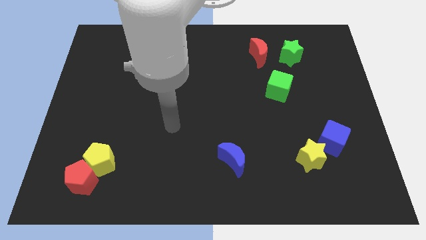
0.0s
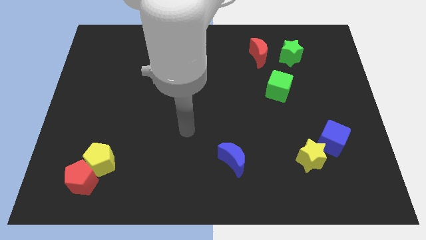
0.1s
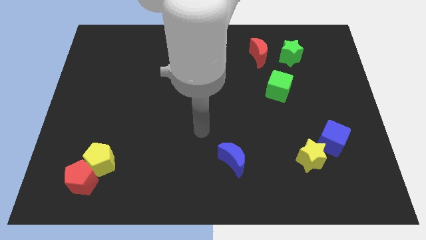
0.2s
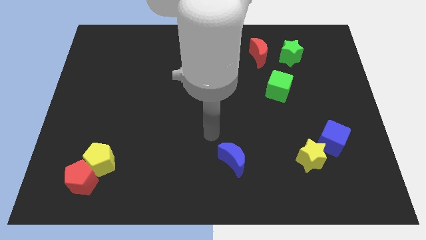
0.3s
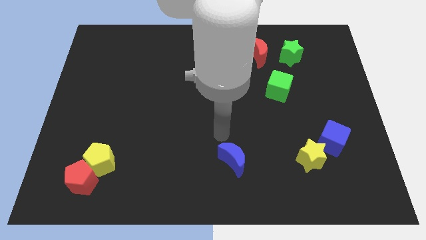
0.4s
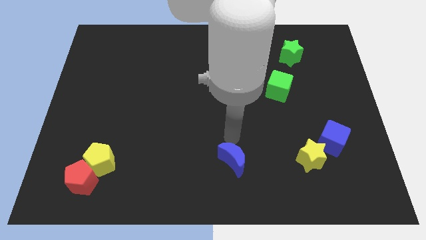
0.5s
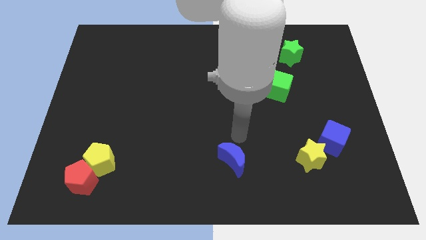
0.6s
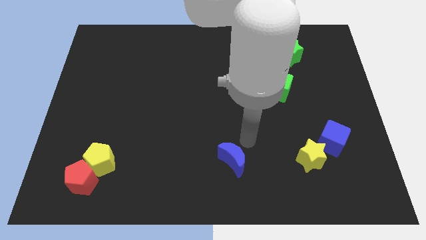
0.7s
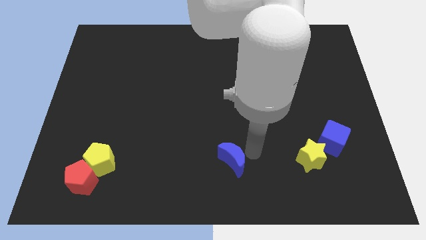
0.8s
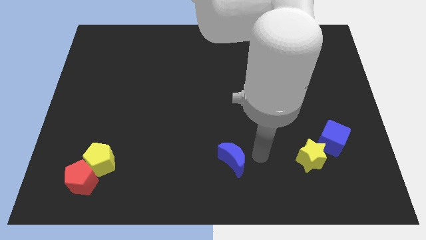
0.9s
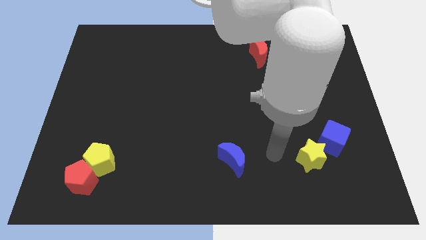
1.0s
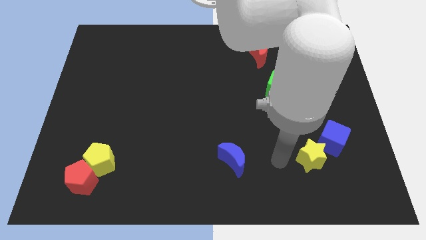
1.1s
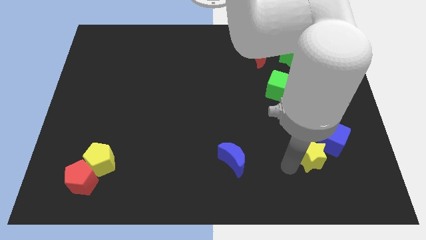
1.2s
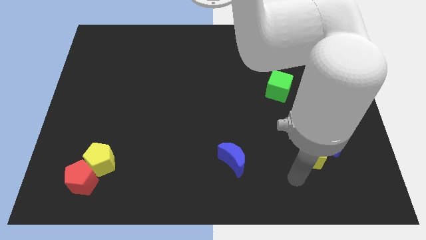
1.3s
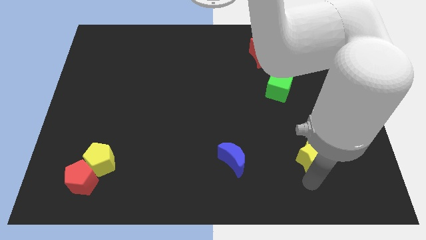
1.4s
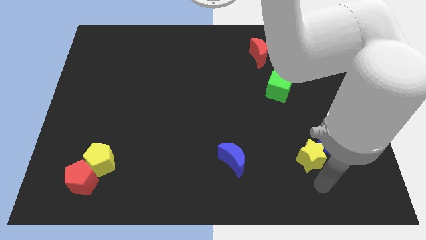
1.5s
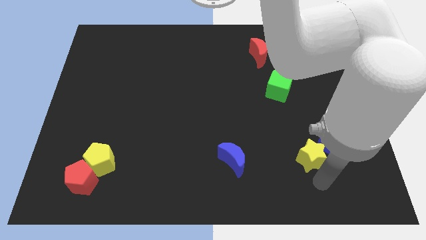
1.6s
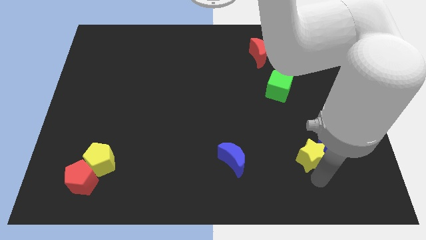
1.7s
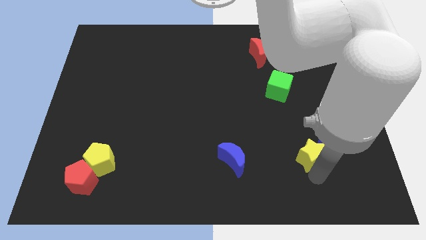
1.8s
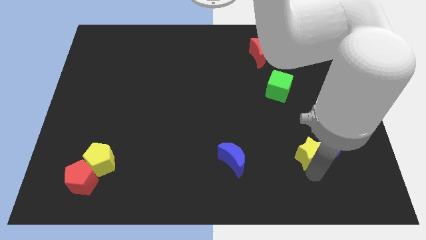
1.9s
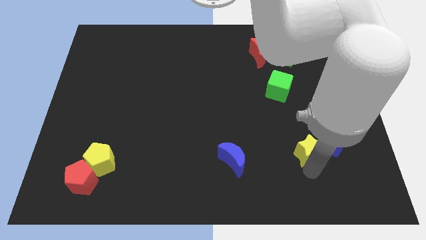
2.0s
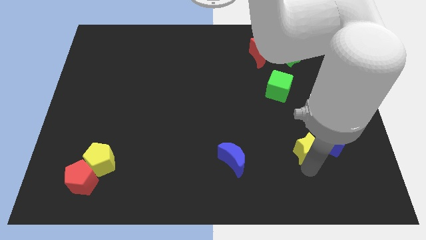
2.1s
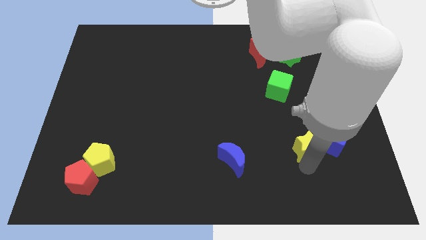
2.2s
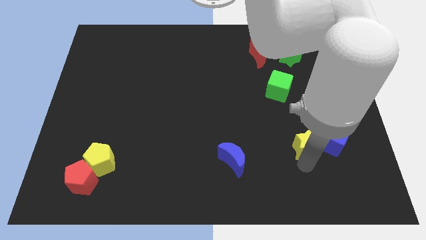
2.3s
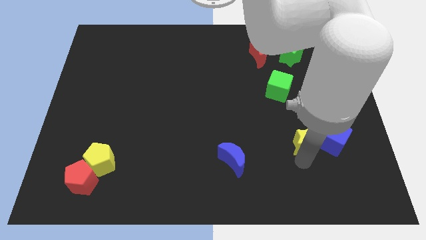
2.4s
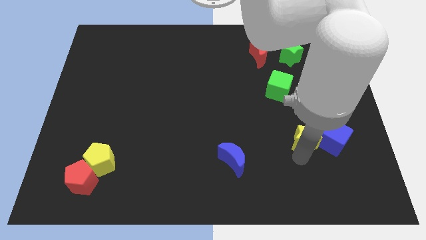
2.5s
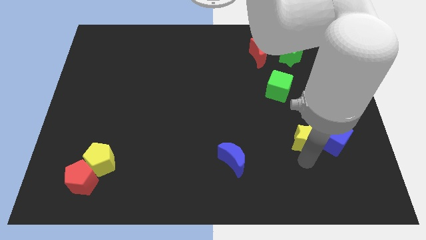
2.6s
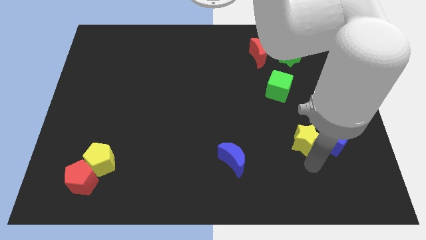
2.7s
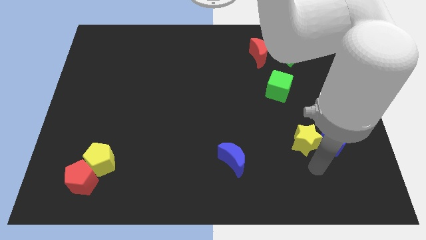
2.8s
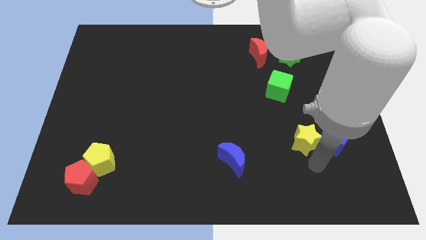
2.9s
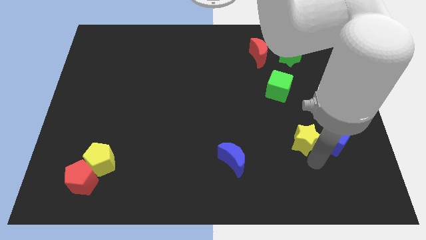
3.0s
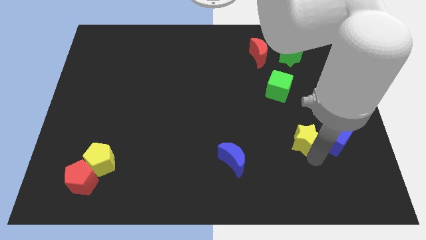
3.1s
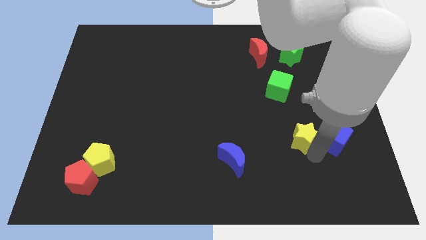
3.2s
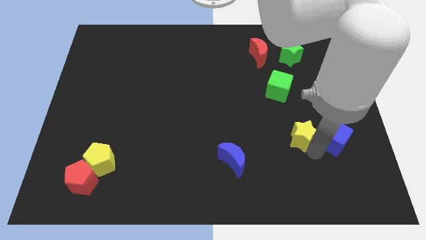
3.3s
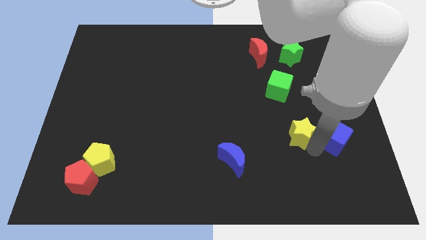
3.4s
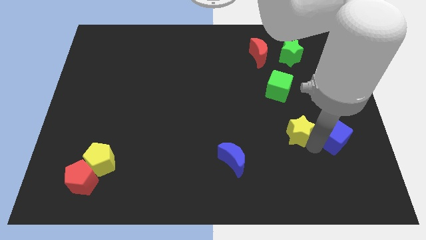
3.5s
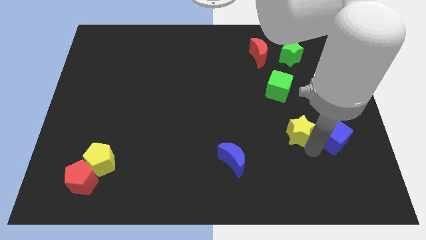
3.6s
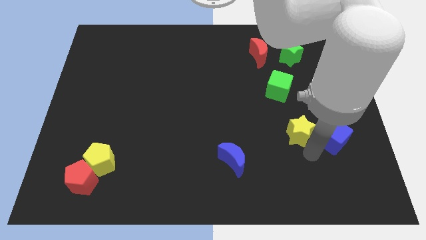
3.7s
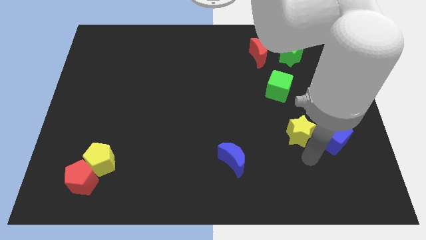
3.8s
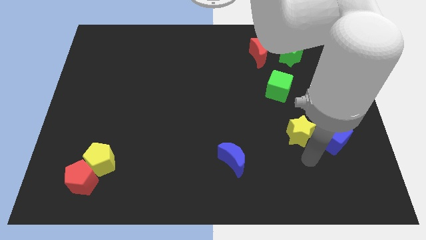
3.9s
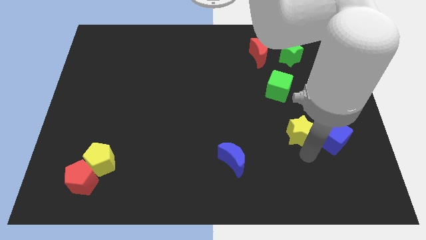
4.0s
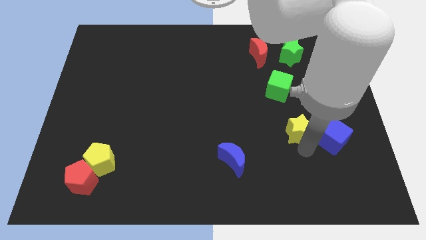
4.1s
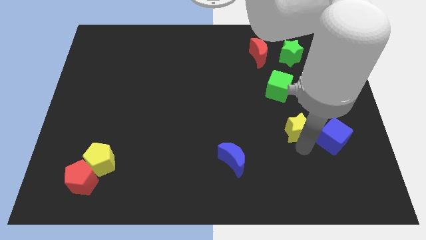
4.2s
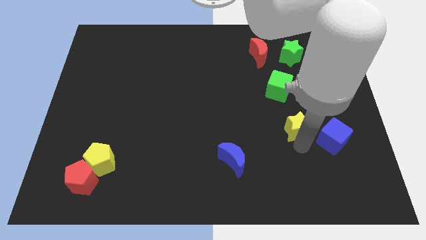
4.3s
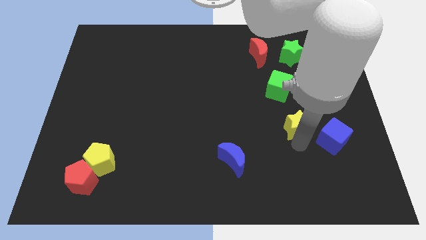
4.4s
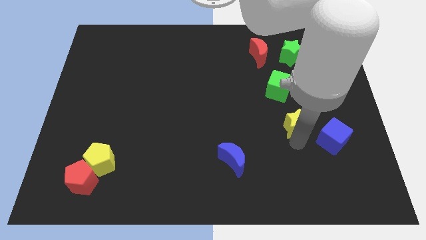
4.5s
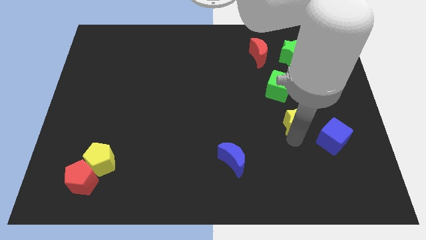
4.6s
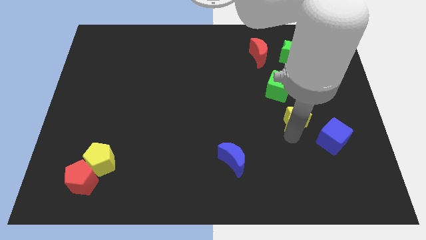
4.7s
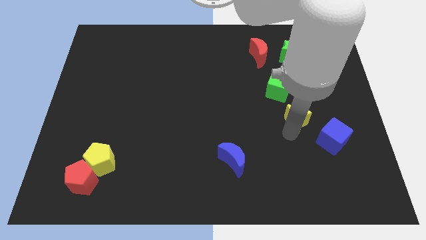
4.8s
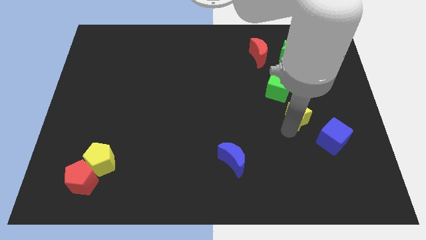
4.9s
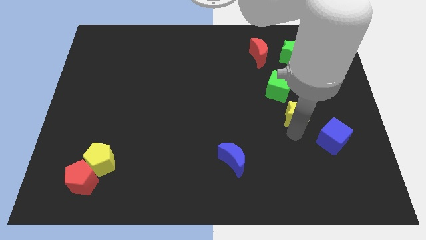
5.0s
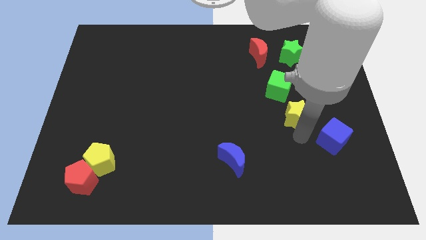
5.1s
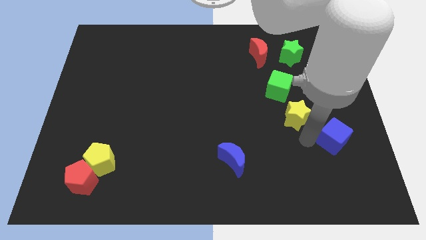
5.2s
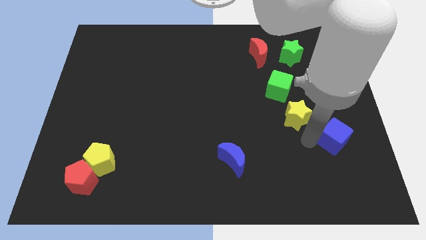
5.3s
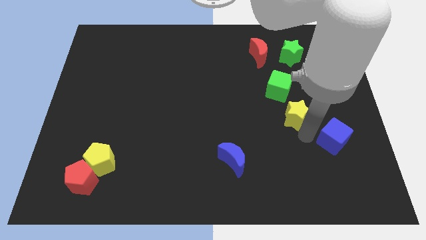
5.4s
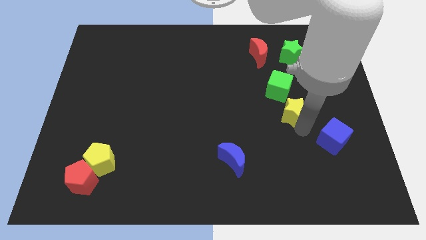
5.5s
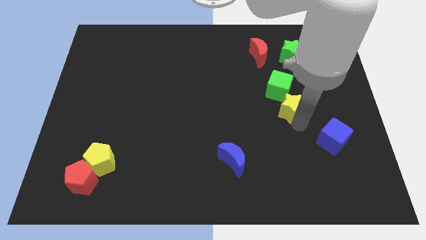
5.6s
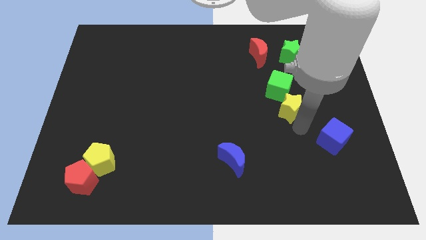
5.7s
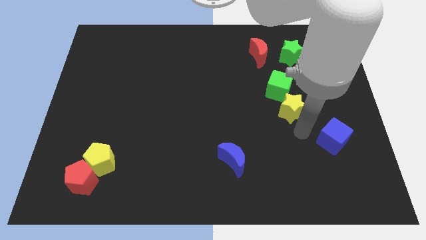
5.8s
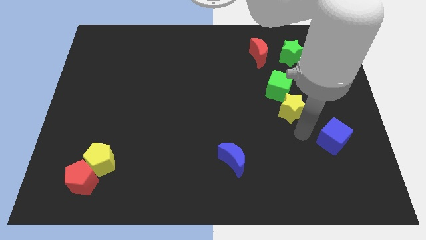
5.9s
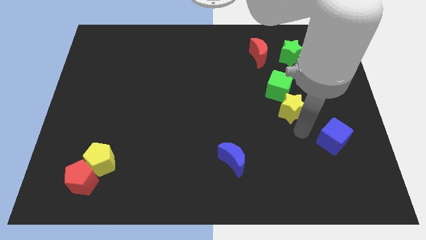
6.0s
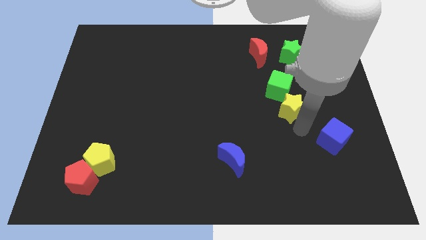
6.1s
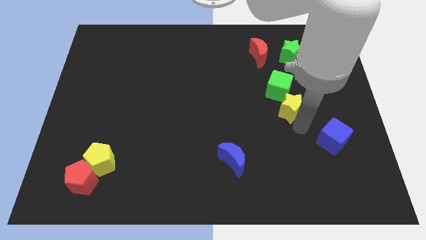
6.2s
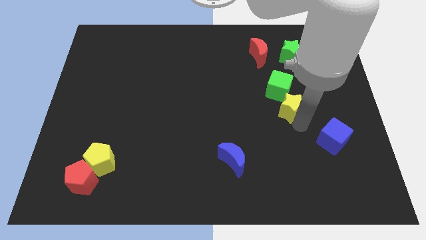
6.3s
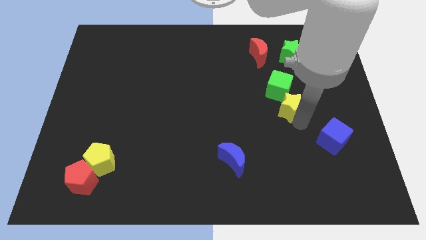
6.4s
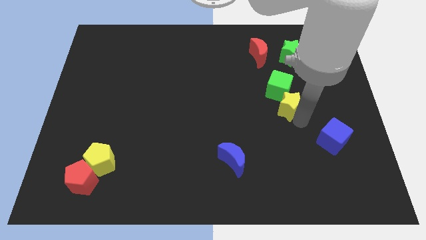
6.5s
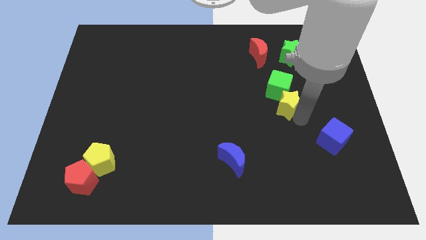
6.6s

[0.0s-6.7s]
slide the yellow star to the green cube

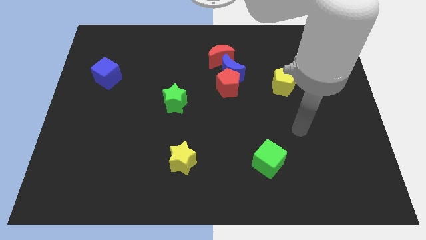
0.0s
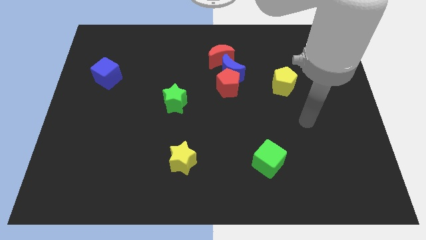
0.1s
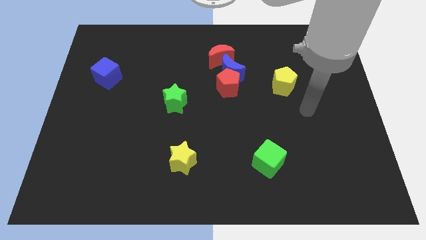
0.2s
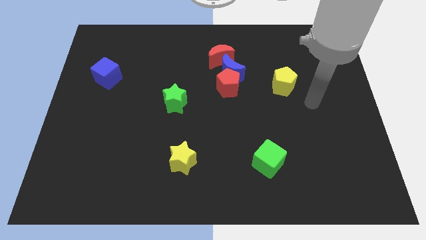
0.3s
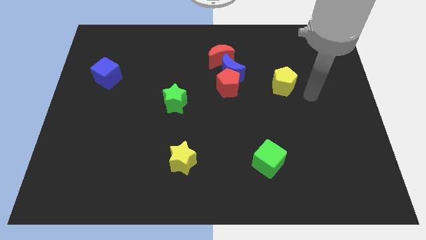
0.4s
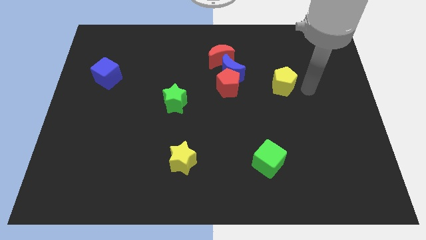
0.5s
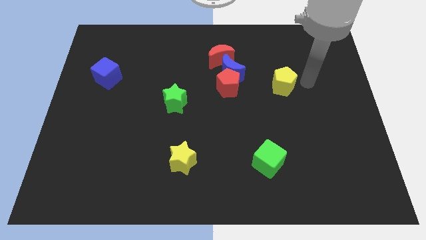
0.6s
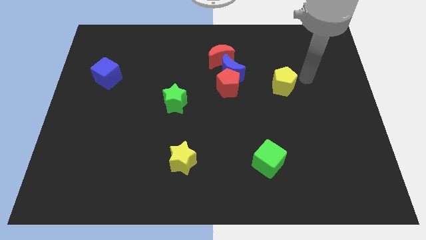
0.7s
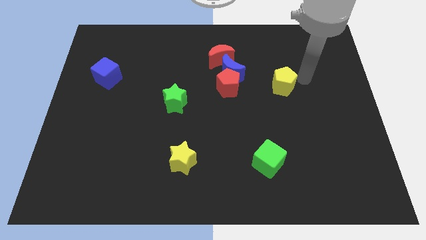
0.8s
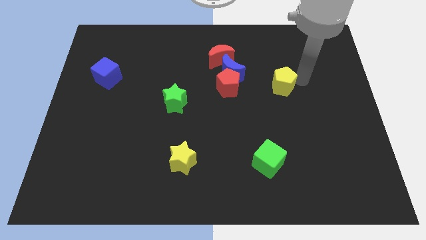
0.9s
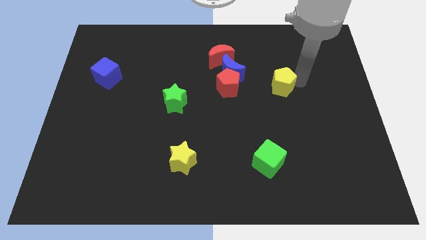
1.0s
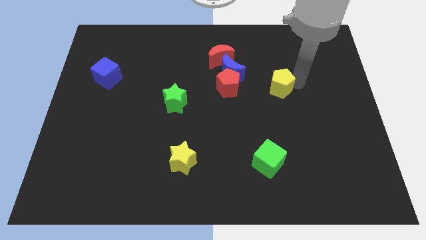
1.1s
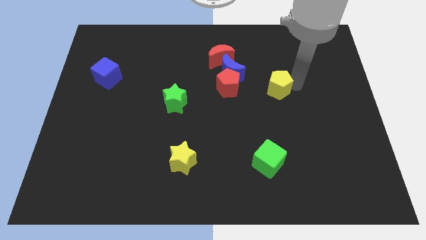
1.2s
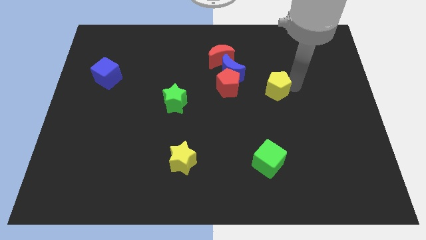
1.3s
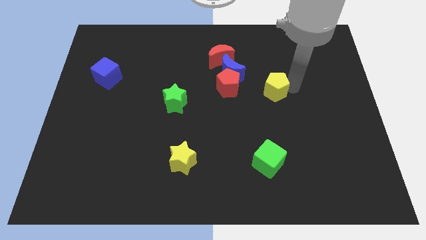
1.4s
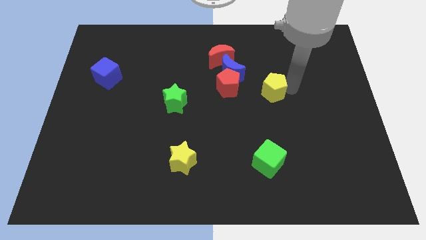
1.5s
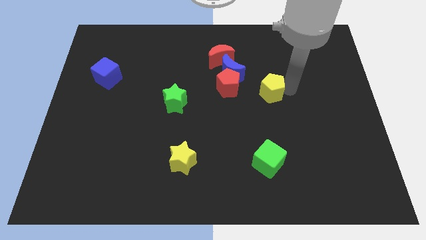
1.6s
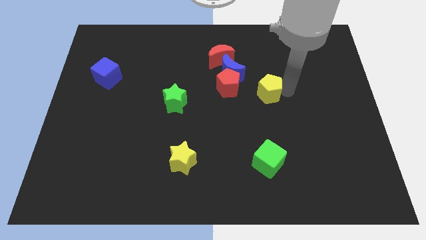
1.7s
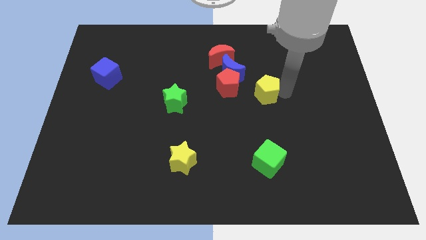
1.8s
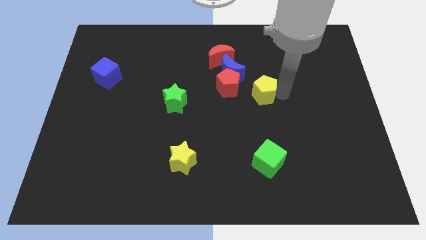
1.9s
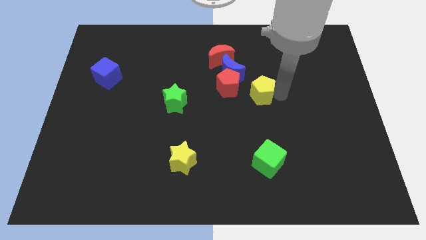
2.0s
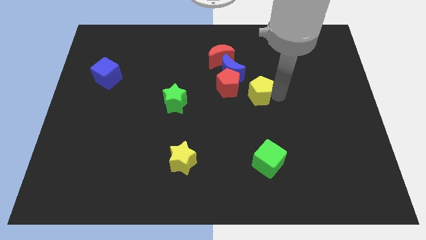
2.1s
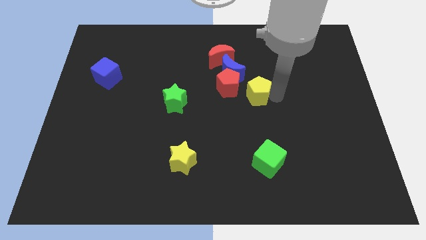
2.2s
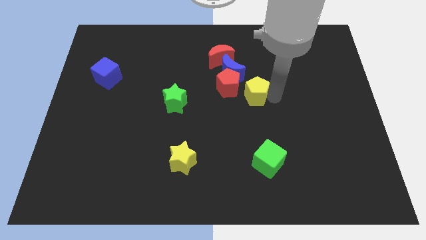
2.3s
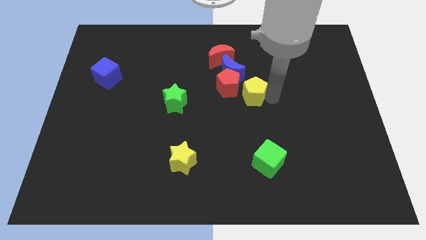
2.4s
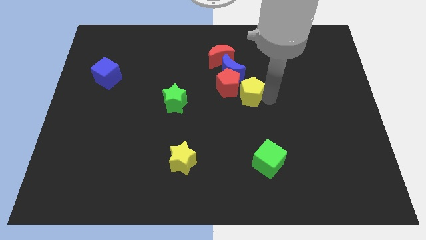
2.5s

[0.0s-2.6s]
move the yellow pentagon close to the red pentagon
